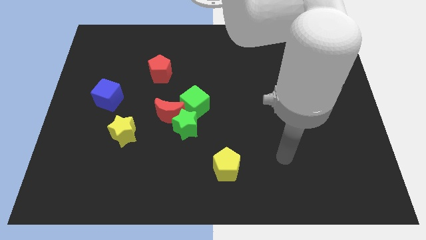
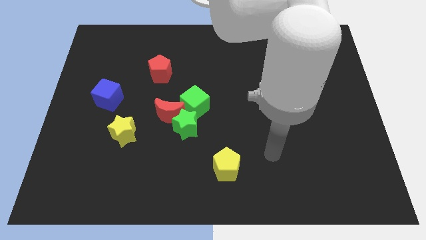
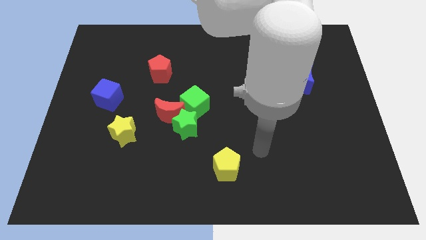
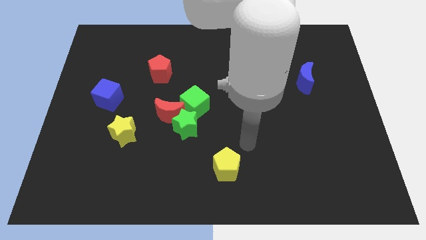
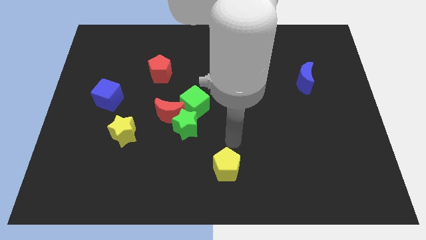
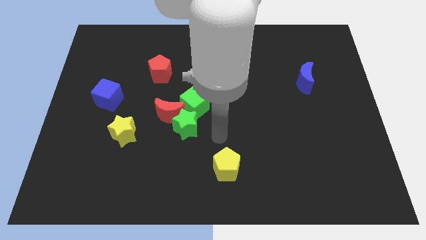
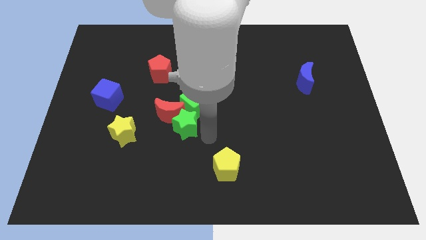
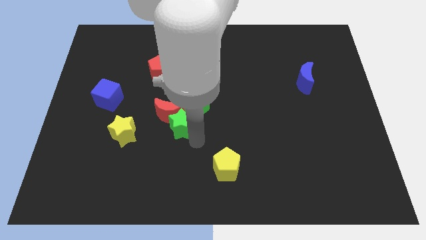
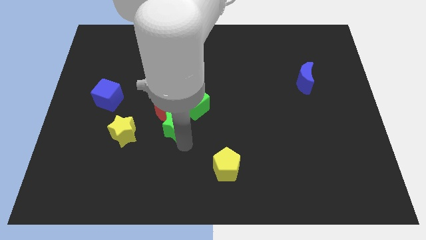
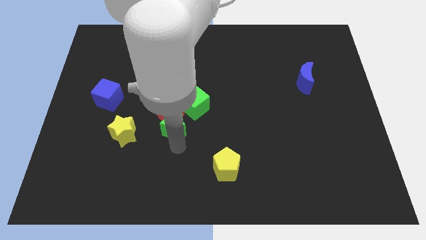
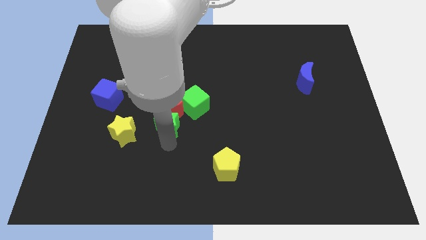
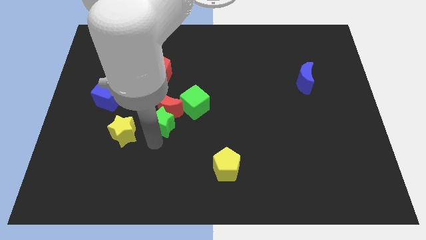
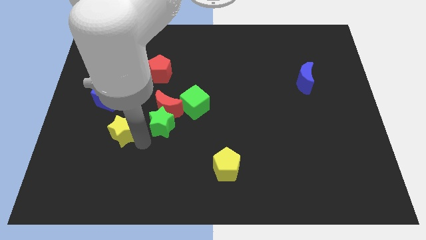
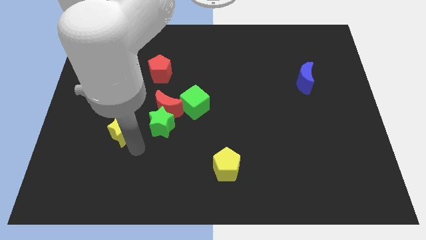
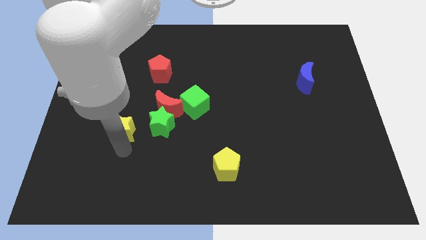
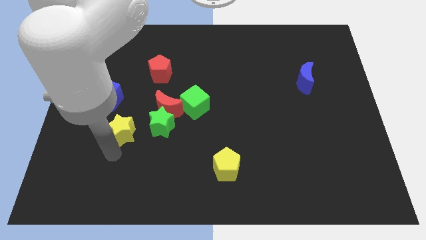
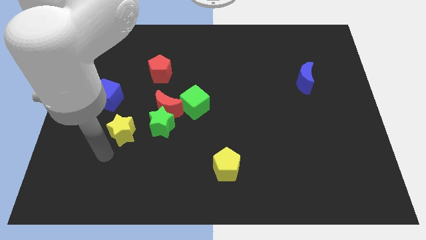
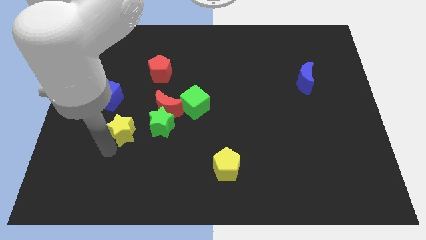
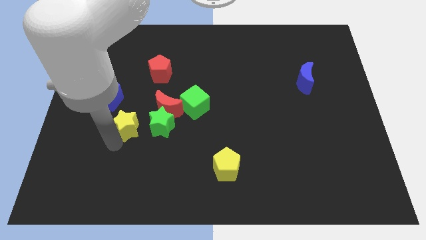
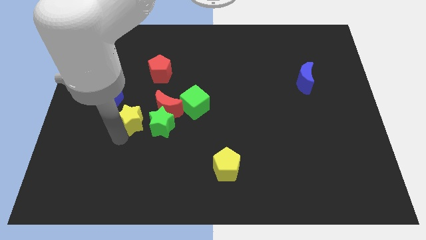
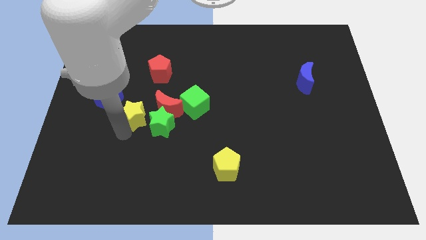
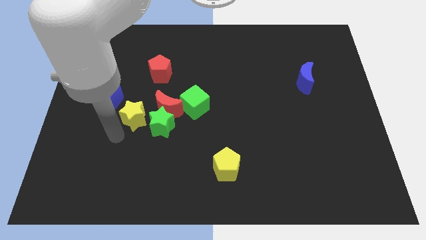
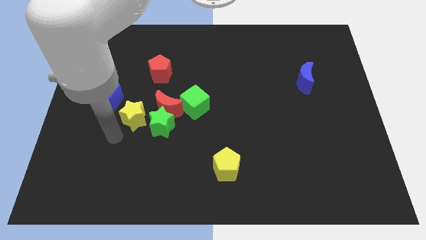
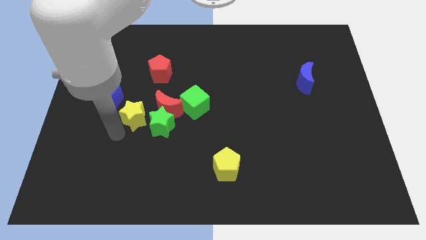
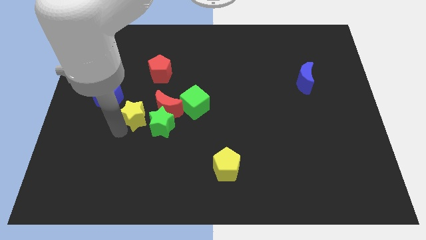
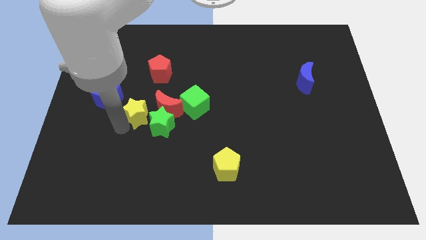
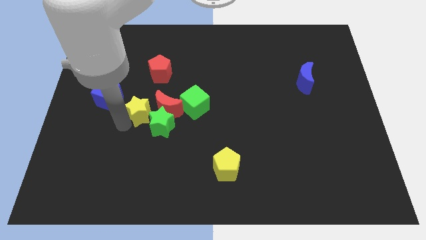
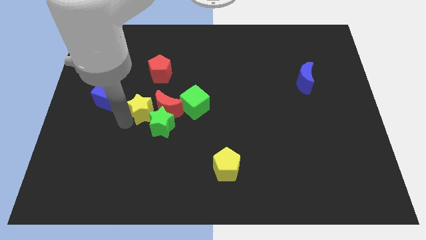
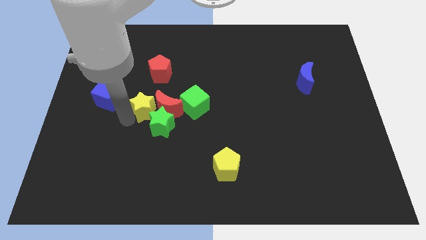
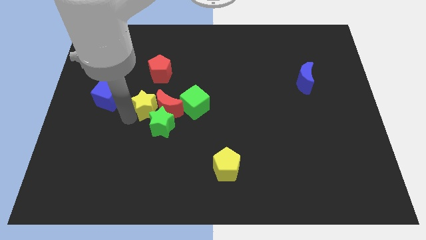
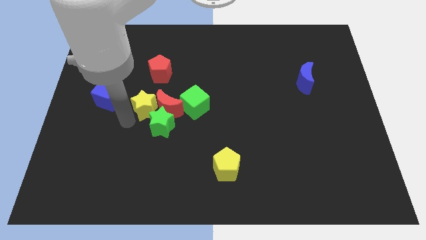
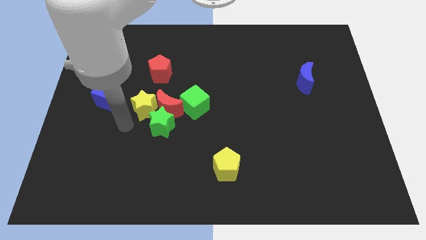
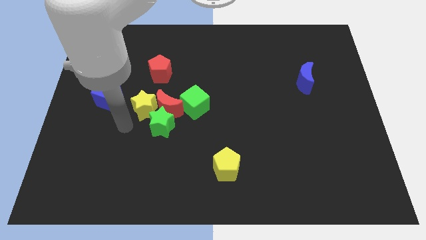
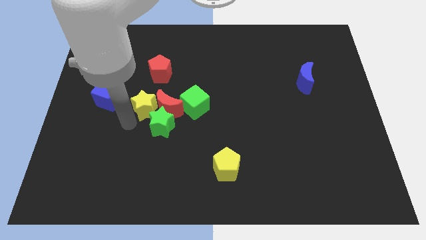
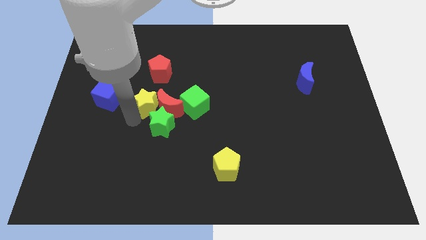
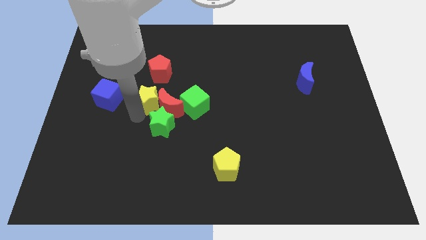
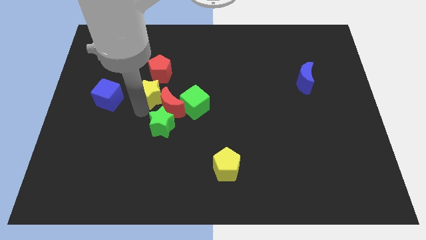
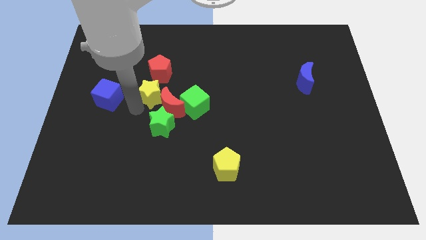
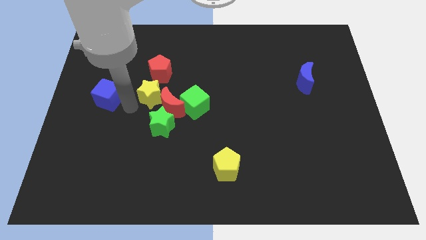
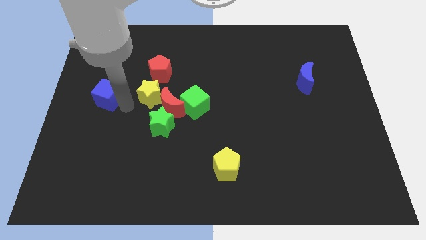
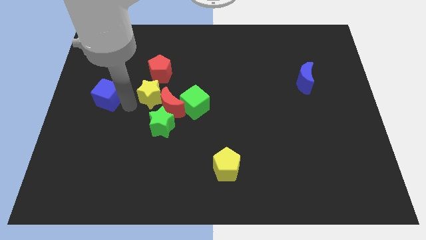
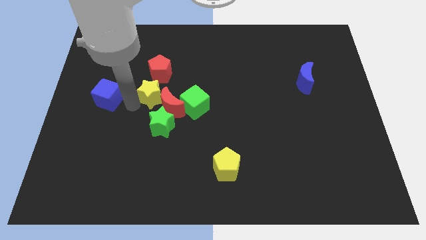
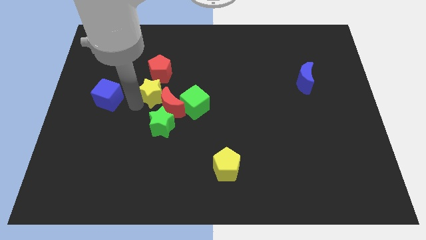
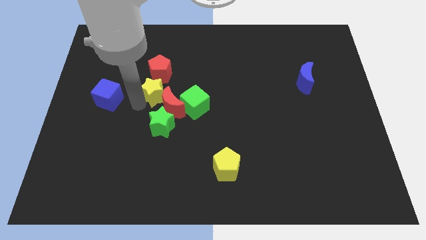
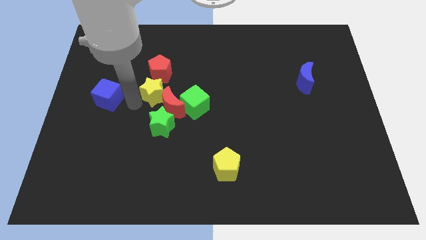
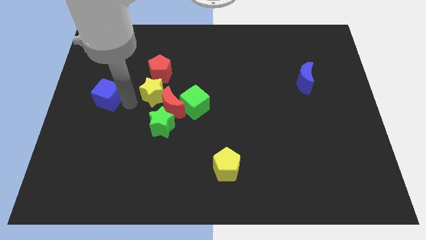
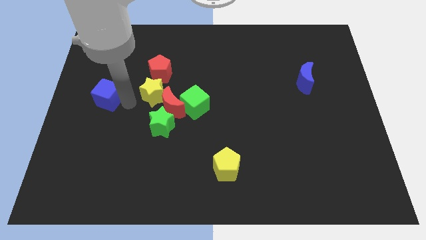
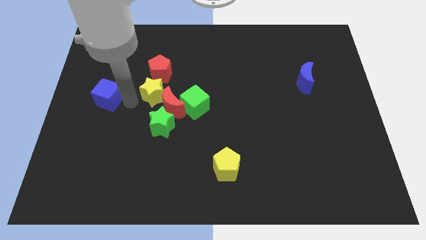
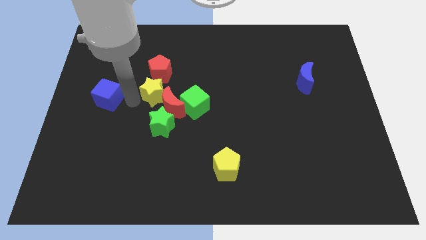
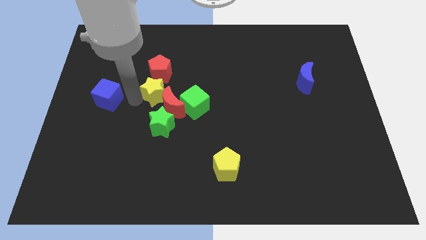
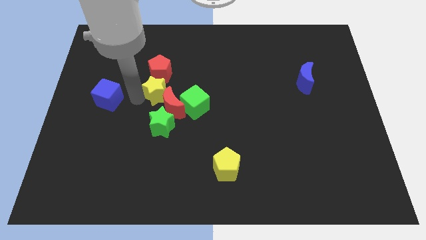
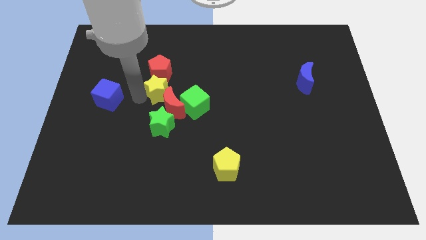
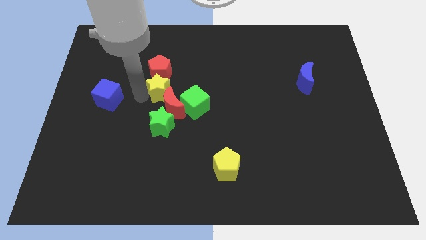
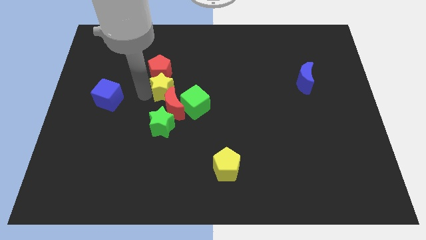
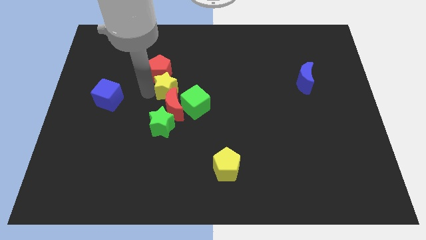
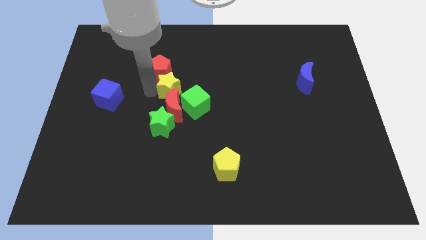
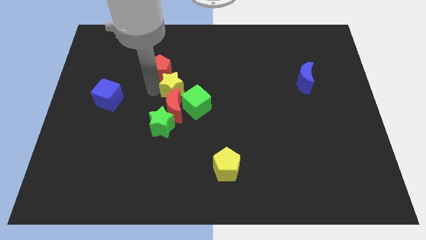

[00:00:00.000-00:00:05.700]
move the yellow star diagonally up and to the right of the red moon

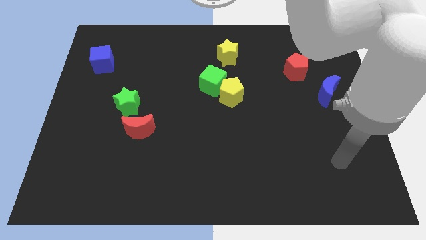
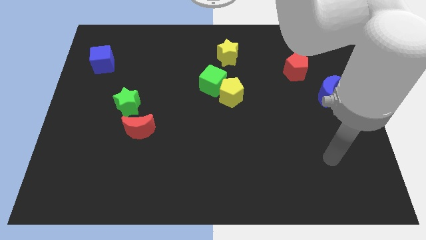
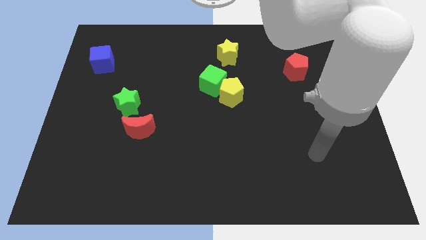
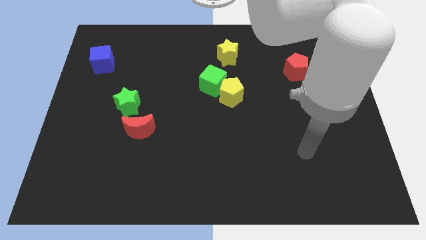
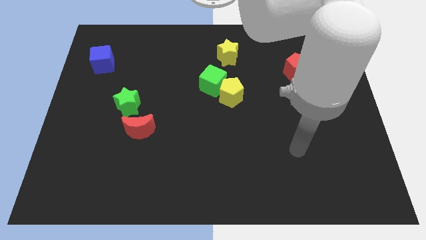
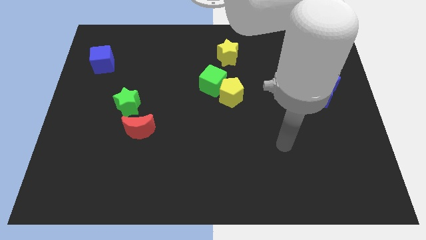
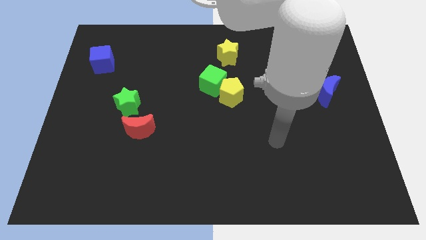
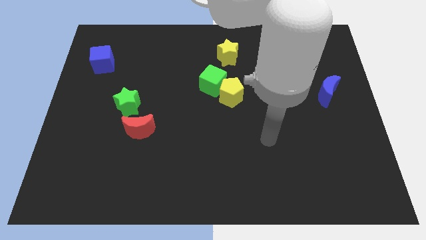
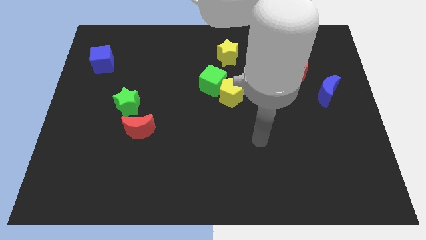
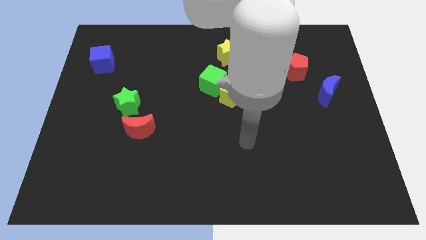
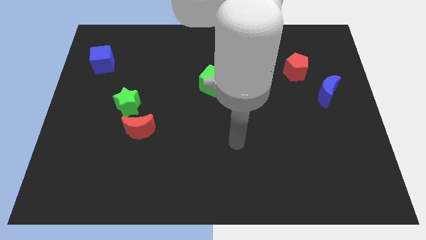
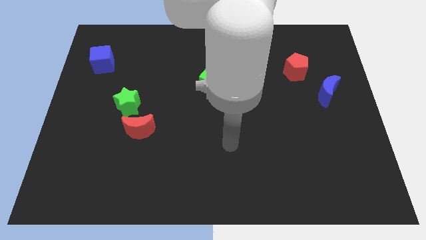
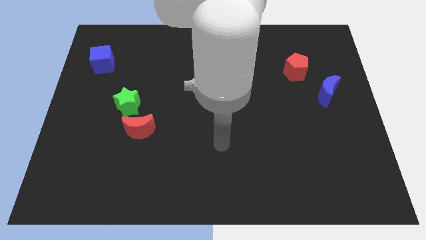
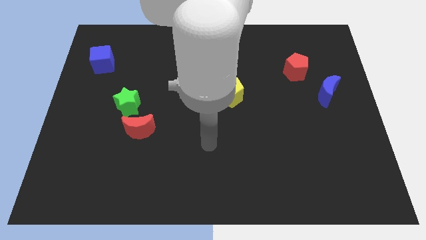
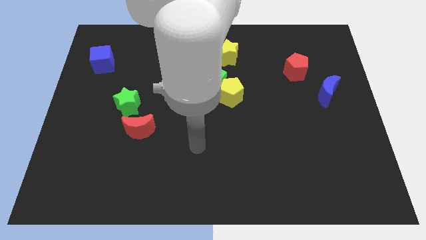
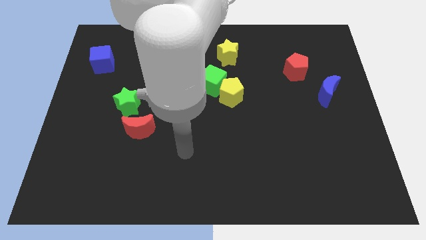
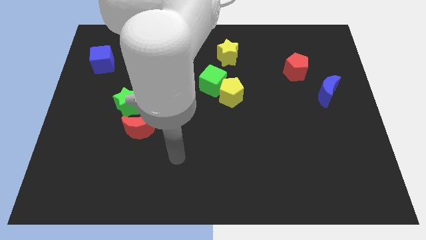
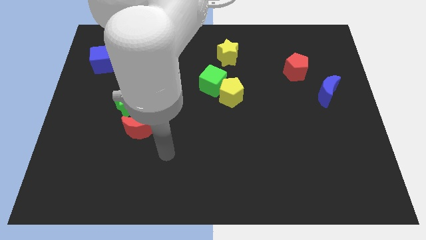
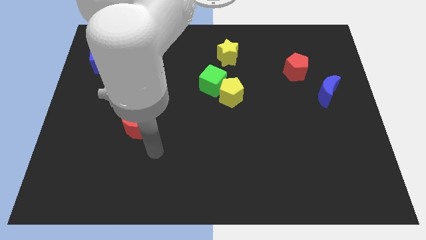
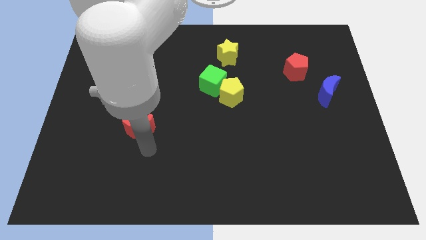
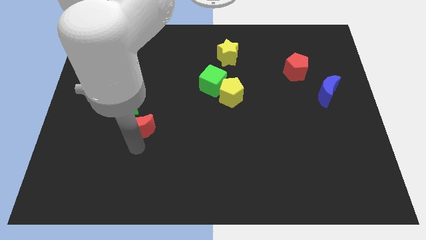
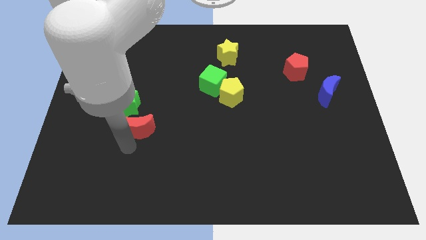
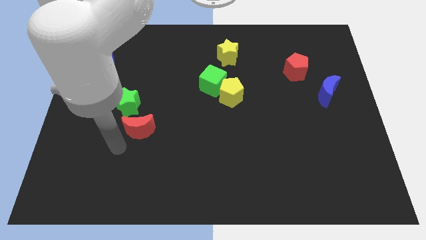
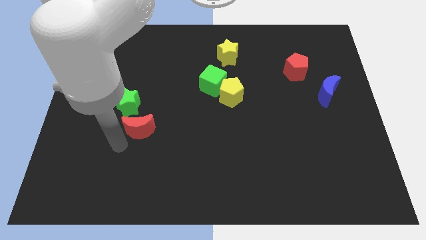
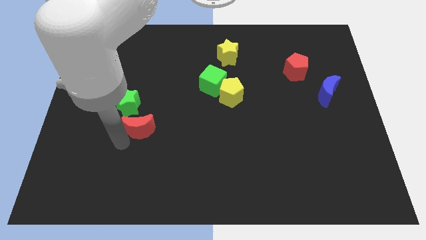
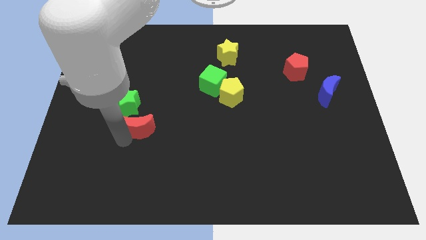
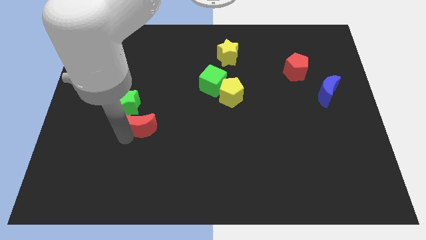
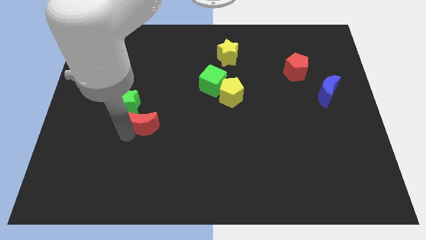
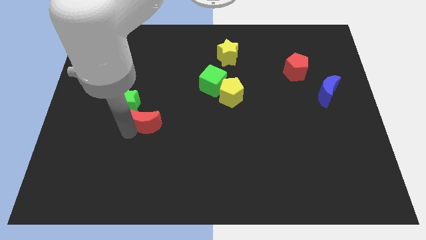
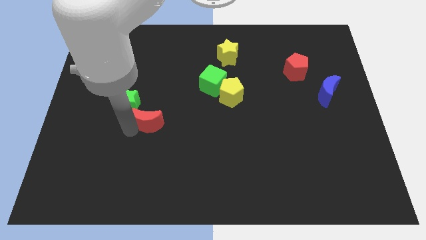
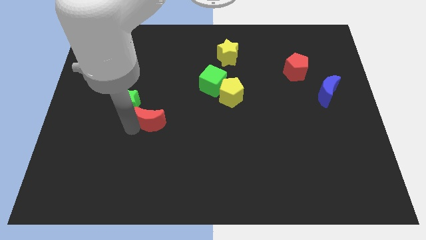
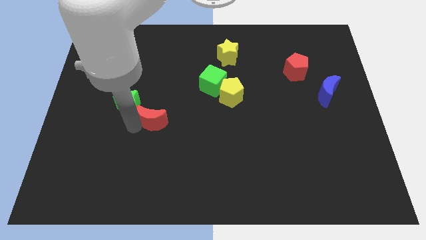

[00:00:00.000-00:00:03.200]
move the red moon to the right of the green star
